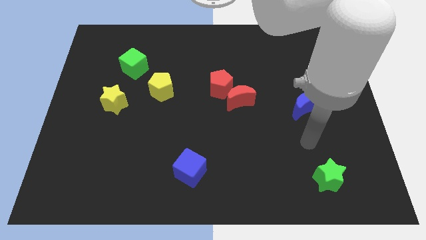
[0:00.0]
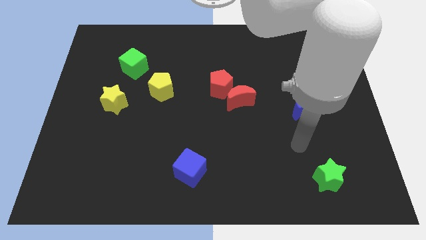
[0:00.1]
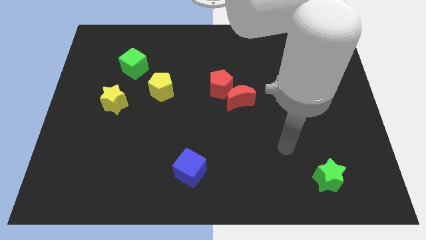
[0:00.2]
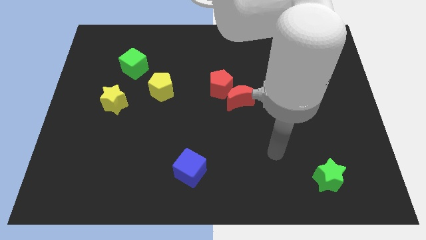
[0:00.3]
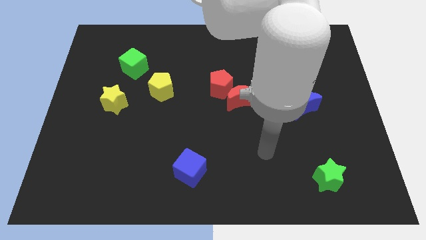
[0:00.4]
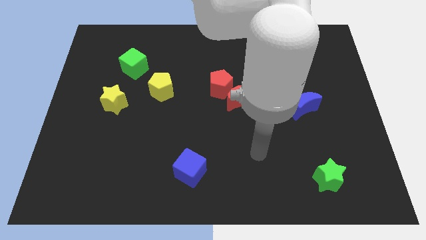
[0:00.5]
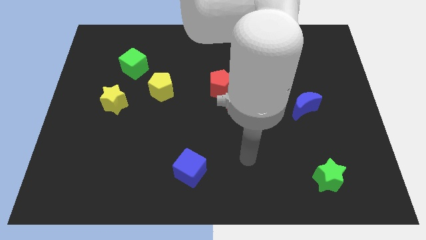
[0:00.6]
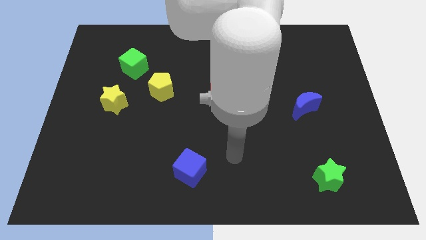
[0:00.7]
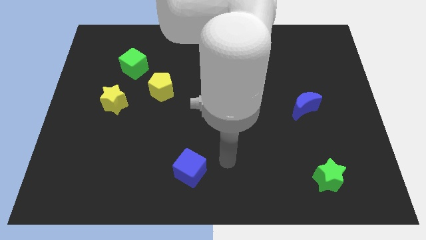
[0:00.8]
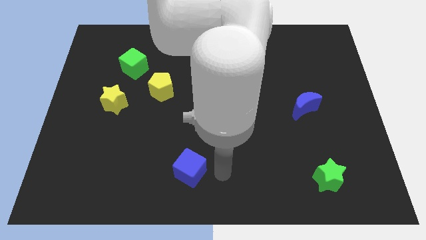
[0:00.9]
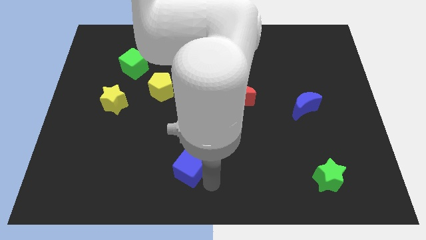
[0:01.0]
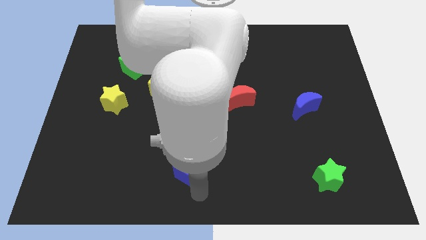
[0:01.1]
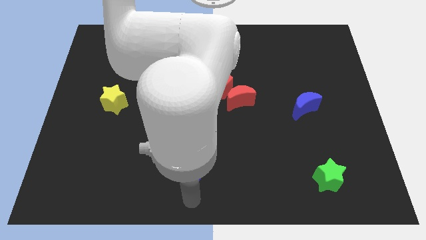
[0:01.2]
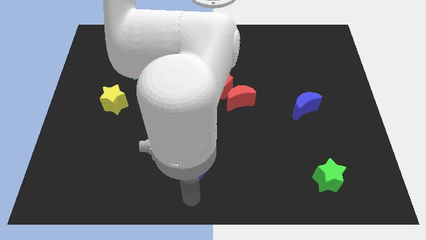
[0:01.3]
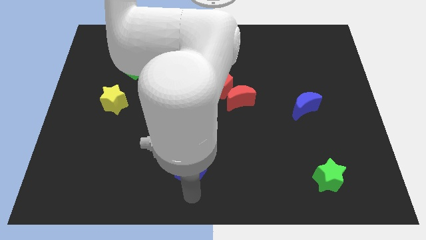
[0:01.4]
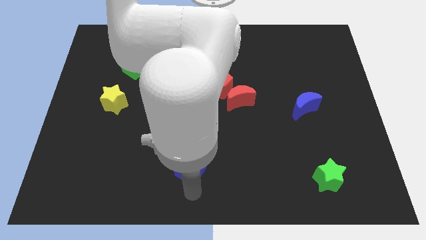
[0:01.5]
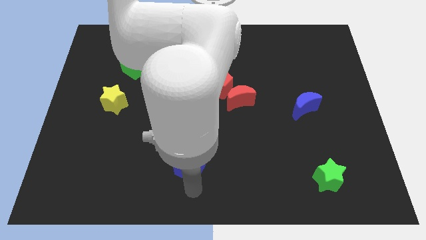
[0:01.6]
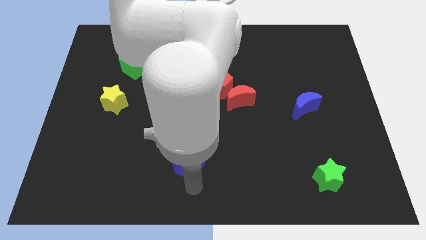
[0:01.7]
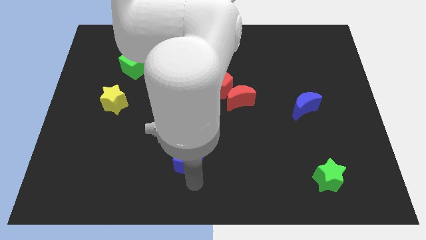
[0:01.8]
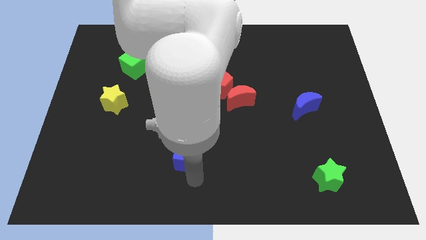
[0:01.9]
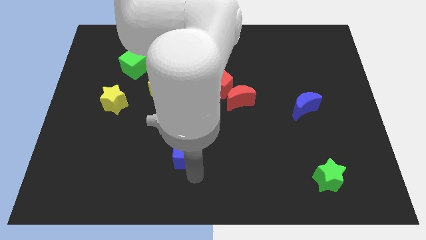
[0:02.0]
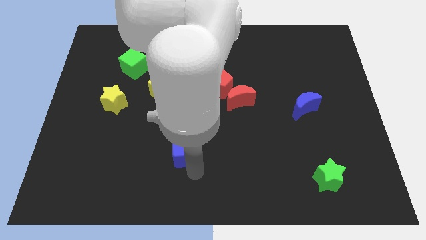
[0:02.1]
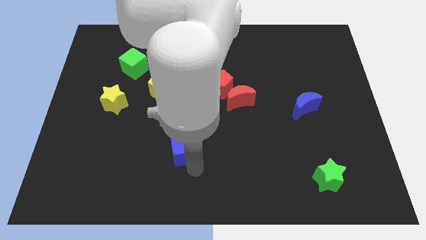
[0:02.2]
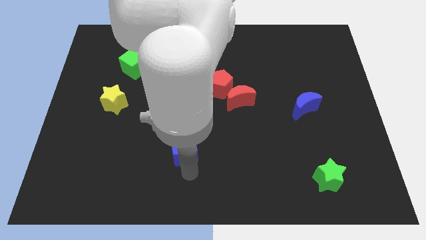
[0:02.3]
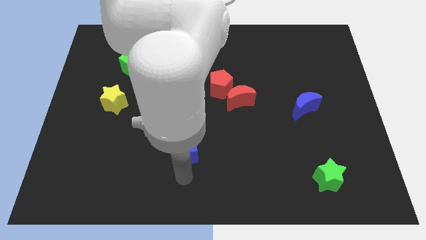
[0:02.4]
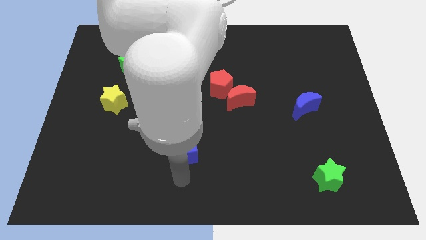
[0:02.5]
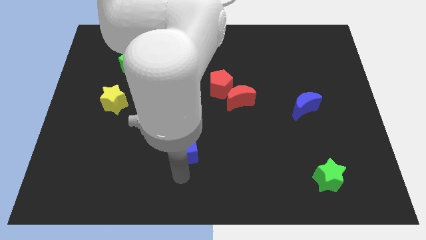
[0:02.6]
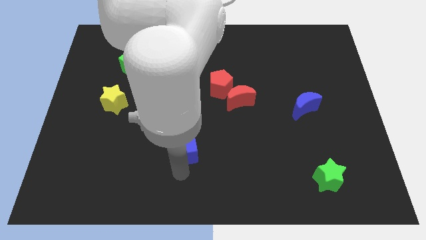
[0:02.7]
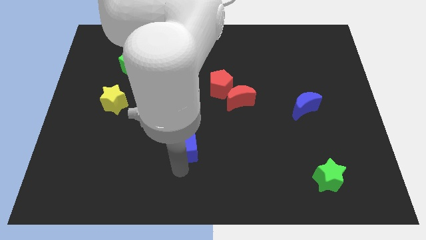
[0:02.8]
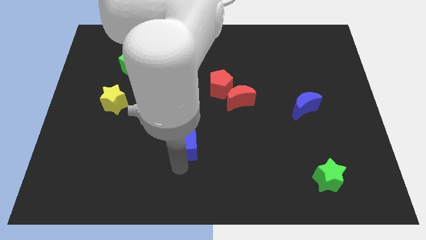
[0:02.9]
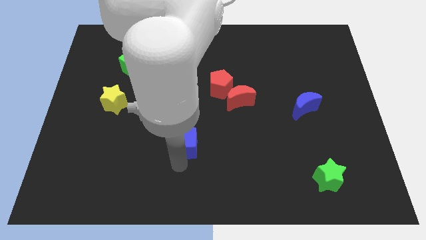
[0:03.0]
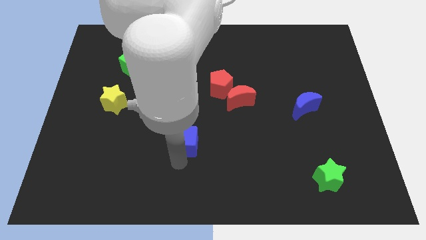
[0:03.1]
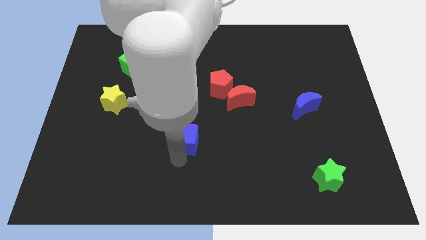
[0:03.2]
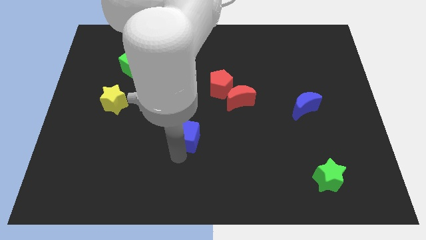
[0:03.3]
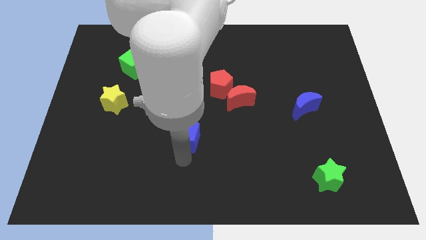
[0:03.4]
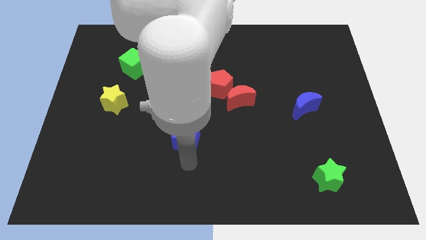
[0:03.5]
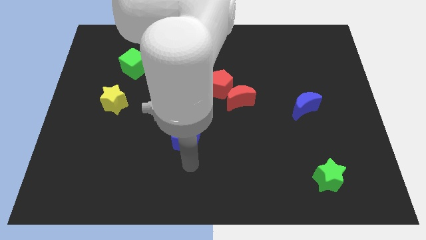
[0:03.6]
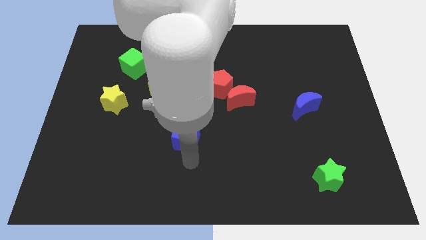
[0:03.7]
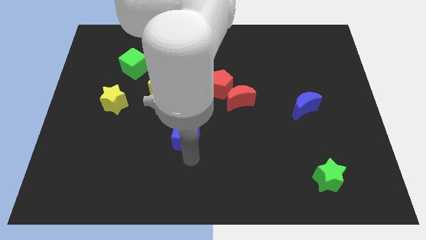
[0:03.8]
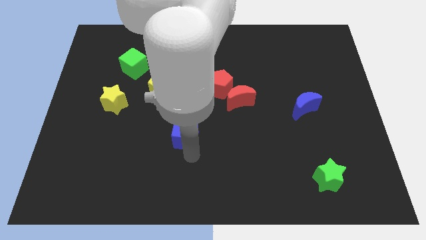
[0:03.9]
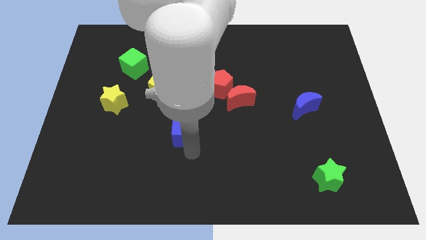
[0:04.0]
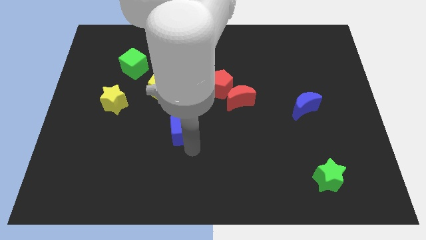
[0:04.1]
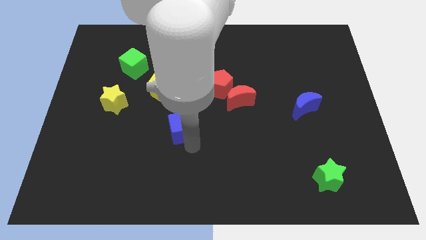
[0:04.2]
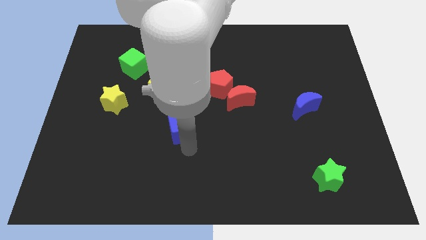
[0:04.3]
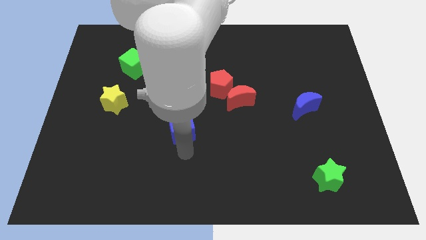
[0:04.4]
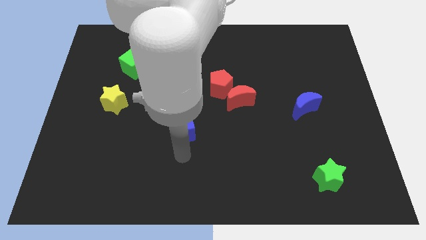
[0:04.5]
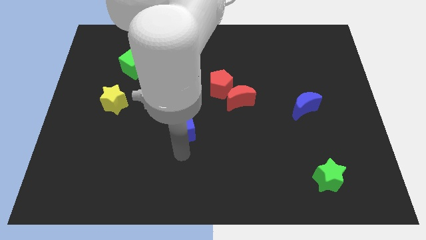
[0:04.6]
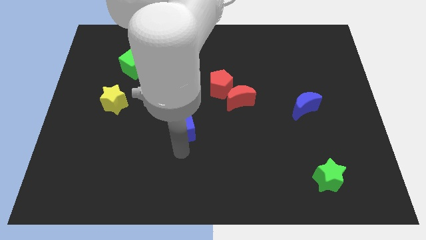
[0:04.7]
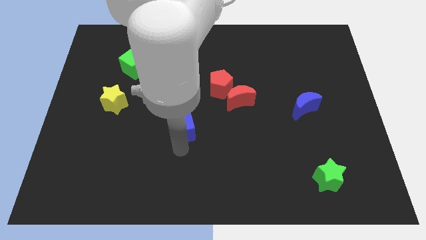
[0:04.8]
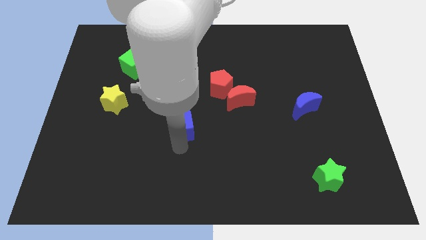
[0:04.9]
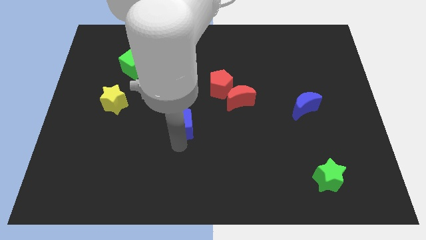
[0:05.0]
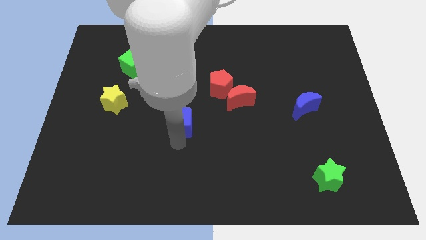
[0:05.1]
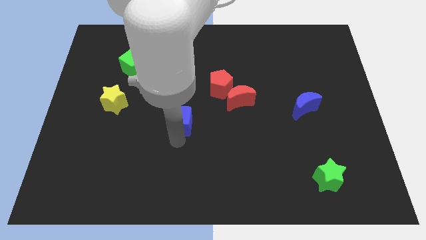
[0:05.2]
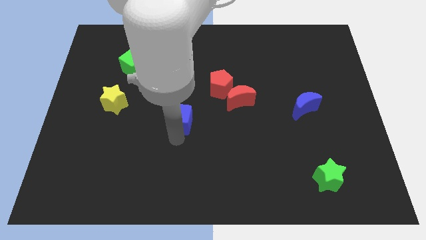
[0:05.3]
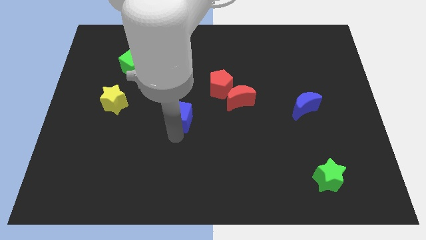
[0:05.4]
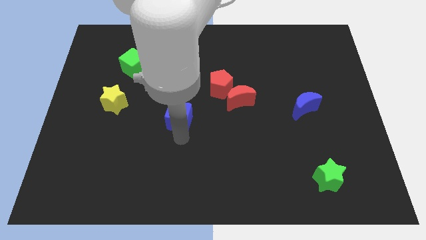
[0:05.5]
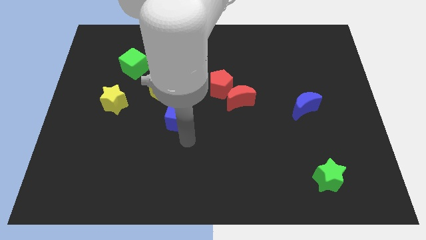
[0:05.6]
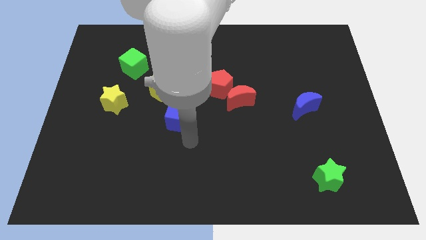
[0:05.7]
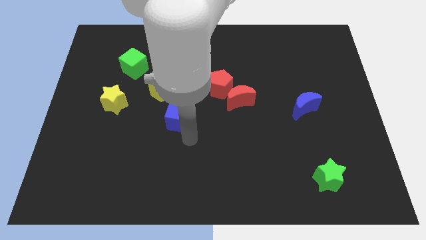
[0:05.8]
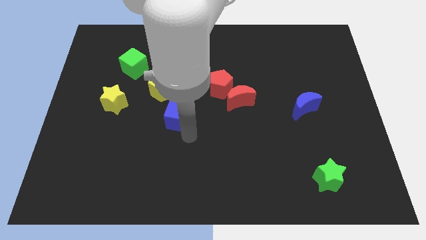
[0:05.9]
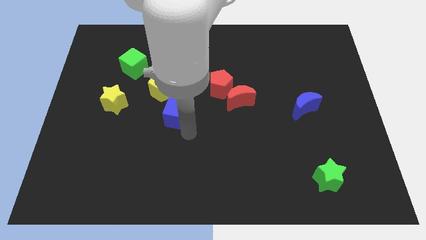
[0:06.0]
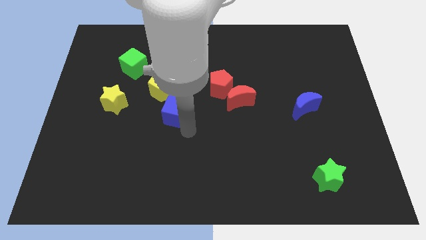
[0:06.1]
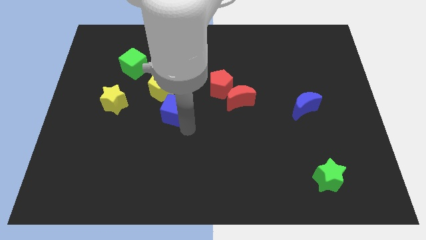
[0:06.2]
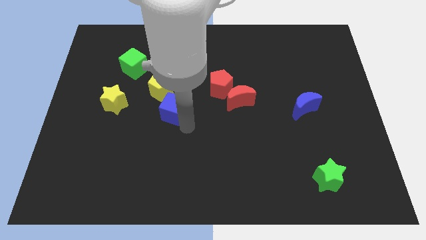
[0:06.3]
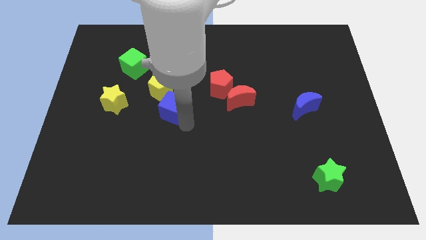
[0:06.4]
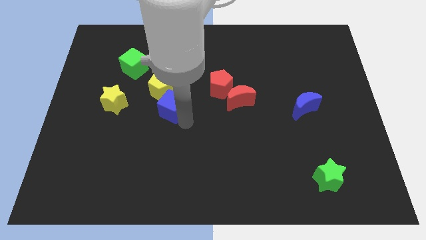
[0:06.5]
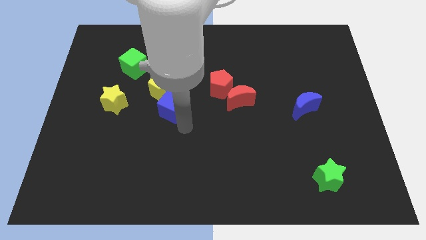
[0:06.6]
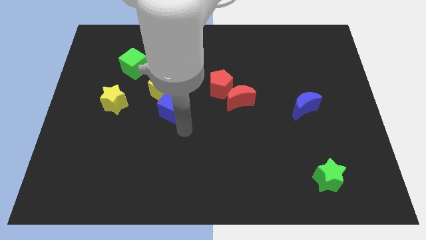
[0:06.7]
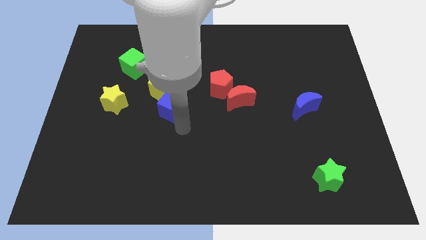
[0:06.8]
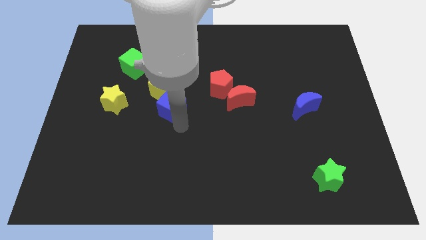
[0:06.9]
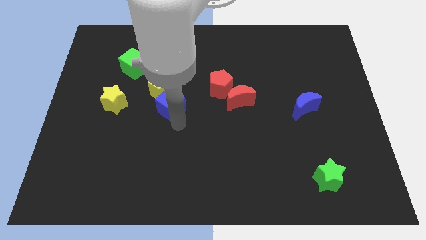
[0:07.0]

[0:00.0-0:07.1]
move the blue cube to the yellow pentagon
